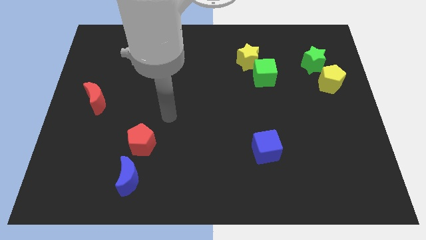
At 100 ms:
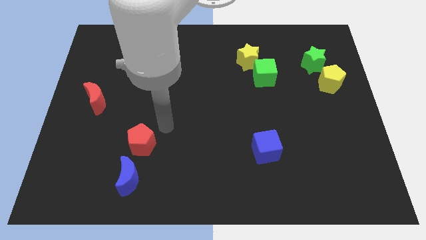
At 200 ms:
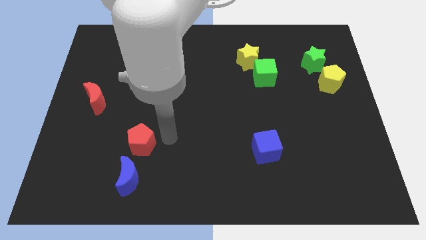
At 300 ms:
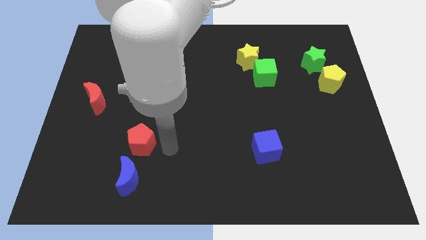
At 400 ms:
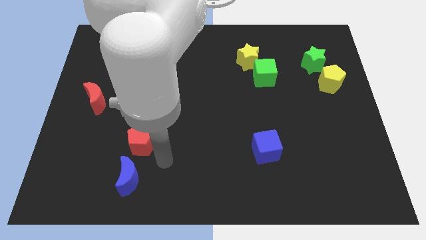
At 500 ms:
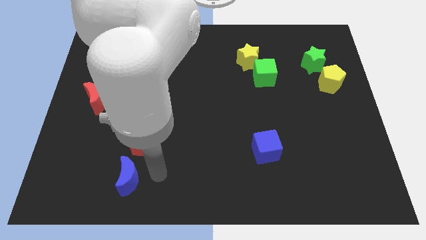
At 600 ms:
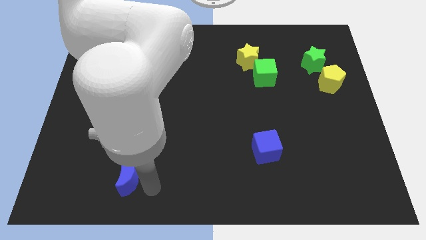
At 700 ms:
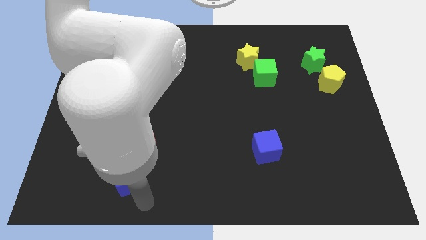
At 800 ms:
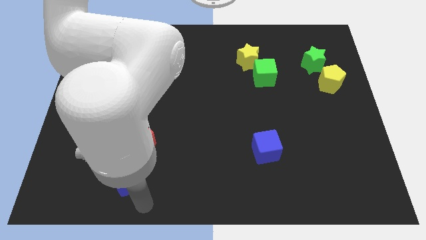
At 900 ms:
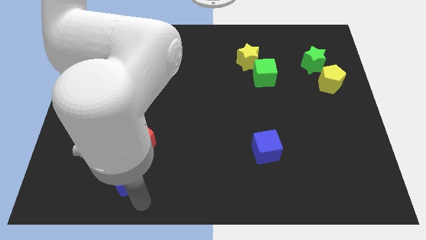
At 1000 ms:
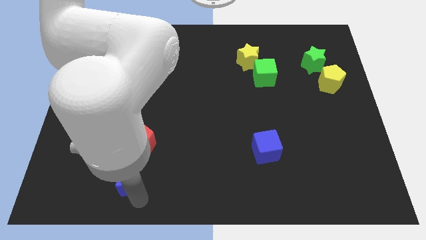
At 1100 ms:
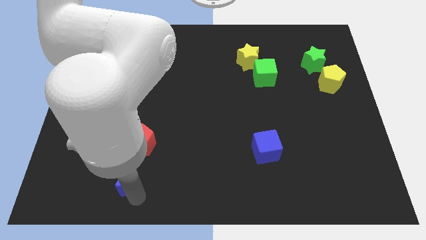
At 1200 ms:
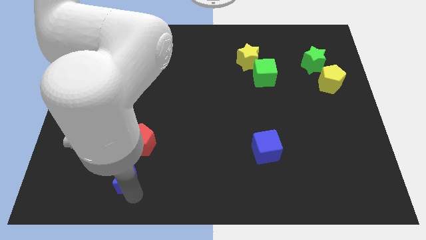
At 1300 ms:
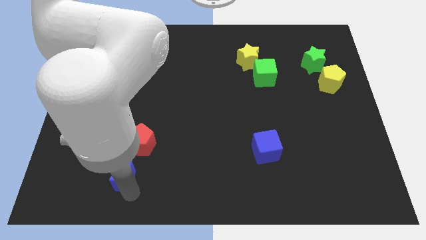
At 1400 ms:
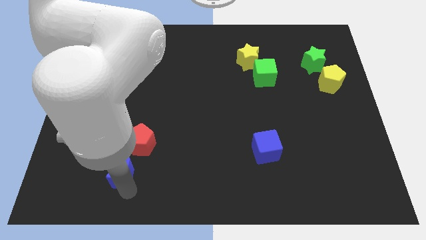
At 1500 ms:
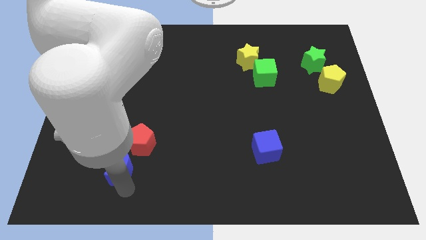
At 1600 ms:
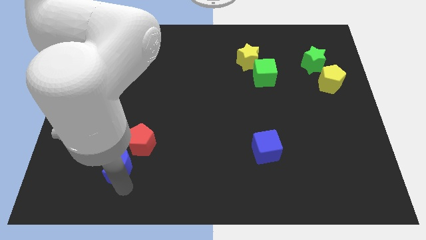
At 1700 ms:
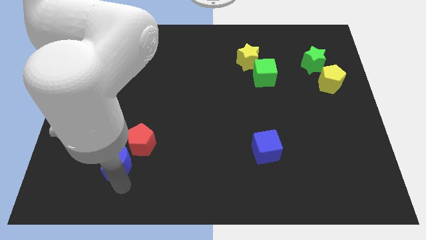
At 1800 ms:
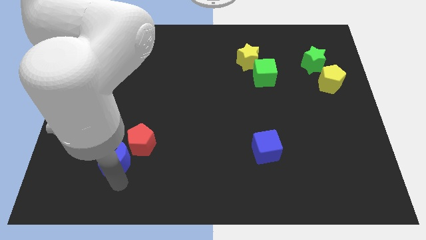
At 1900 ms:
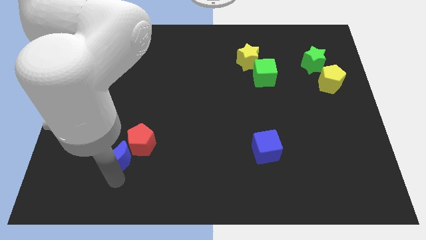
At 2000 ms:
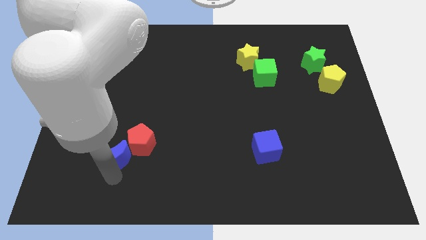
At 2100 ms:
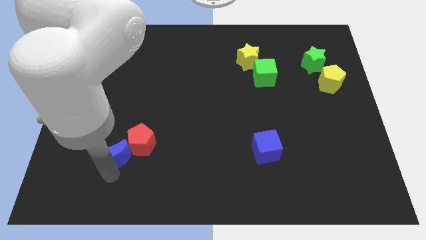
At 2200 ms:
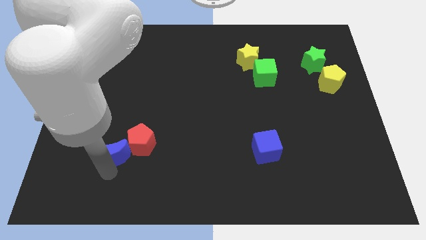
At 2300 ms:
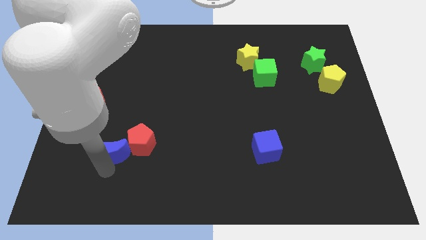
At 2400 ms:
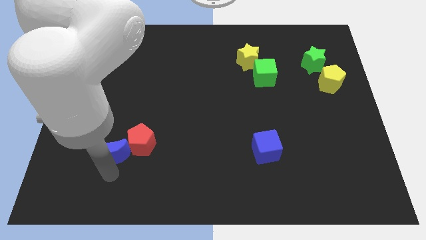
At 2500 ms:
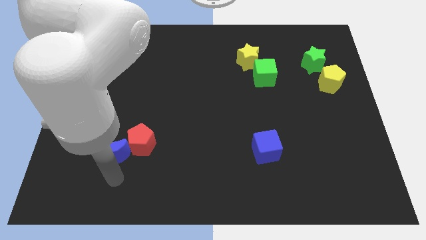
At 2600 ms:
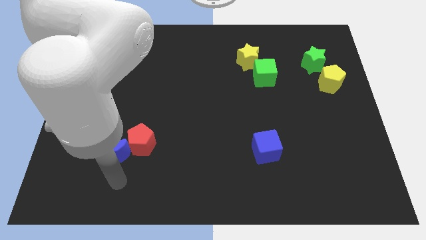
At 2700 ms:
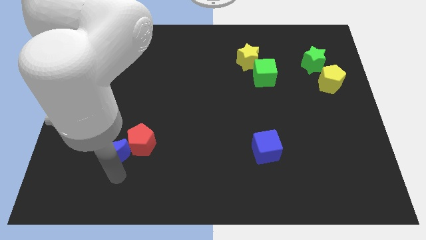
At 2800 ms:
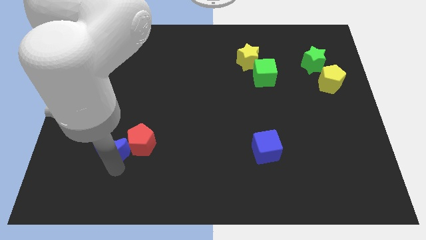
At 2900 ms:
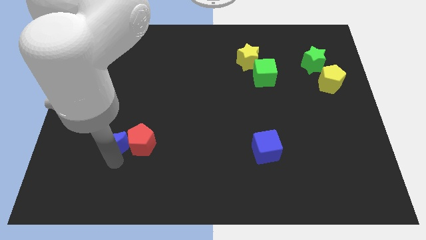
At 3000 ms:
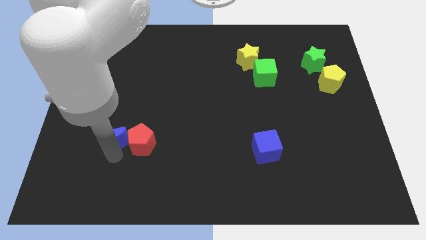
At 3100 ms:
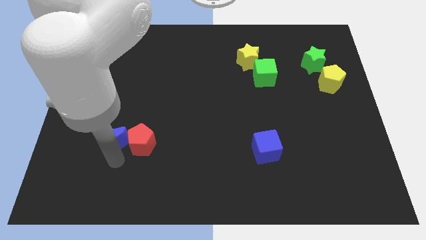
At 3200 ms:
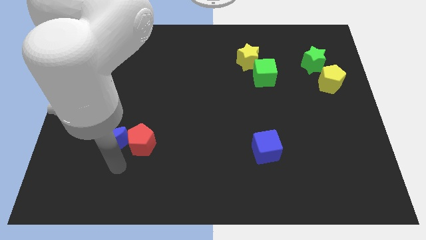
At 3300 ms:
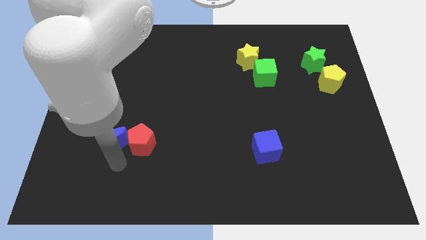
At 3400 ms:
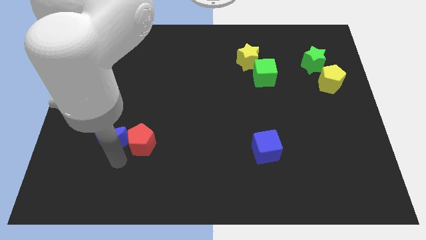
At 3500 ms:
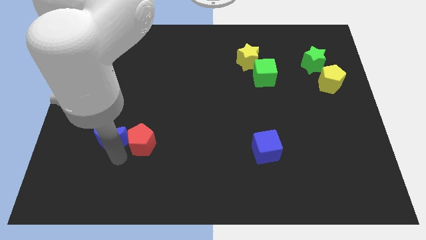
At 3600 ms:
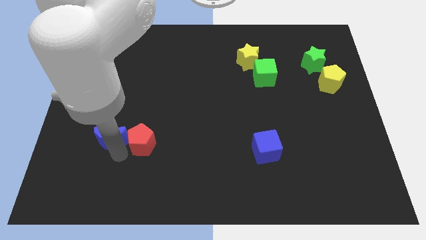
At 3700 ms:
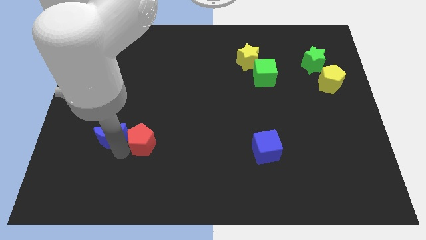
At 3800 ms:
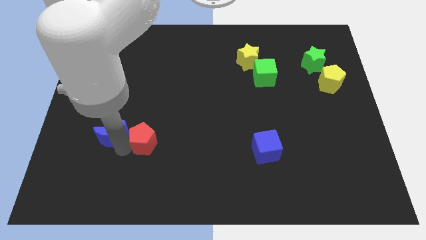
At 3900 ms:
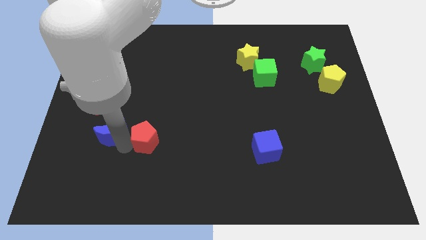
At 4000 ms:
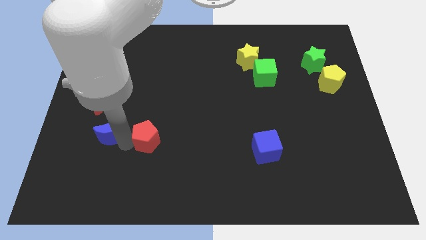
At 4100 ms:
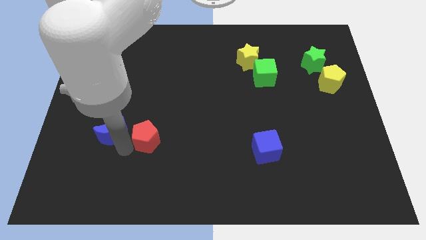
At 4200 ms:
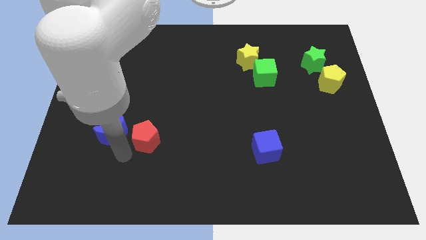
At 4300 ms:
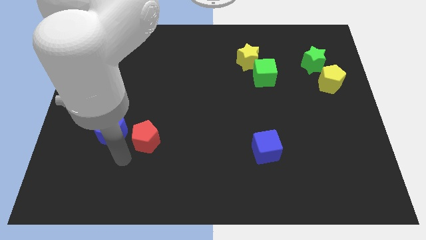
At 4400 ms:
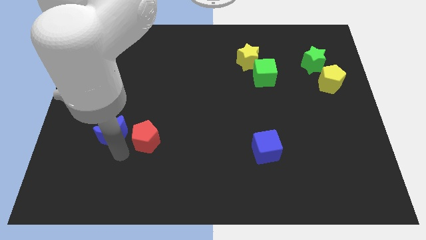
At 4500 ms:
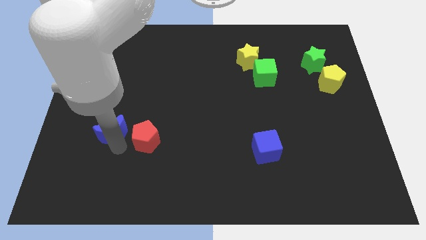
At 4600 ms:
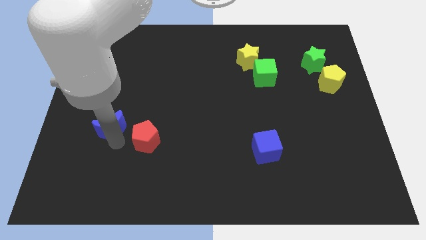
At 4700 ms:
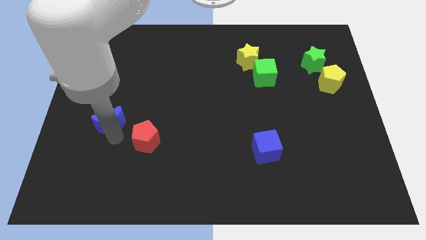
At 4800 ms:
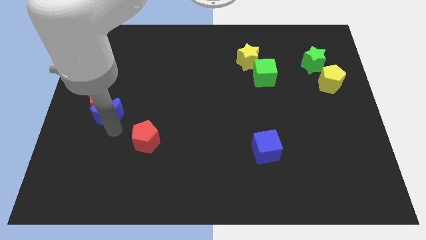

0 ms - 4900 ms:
slide the blue moon close to the red moon

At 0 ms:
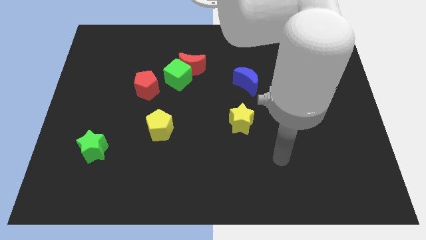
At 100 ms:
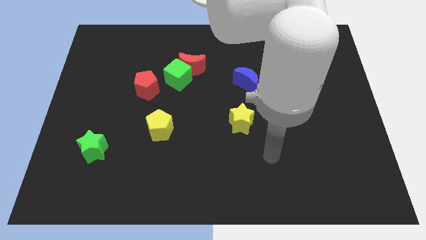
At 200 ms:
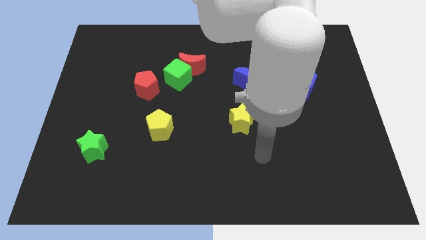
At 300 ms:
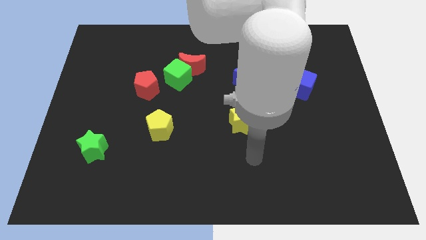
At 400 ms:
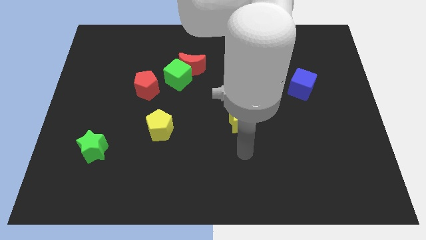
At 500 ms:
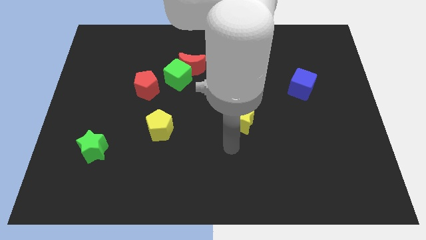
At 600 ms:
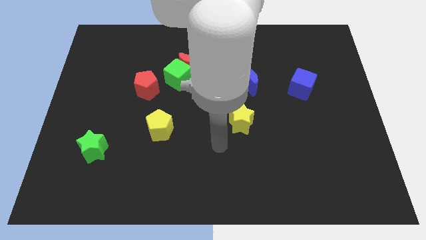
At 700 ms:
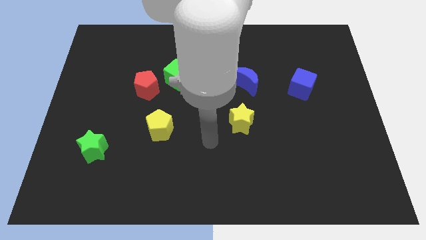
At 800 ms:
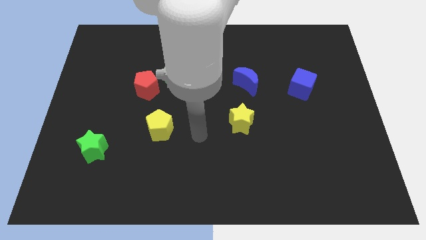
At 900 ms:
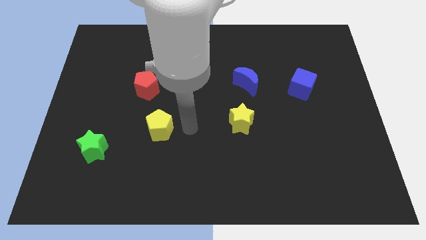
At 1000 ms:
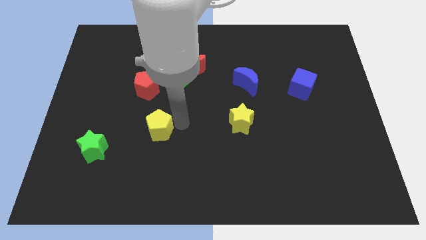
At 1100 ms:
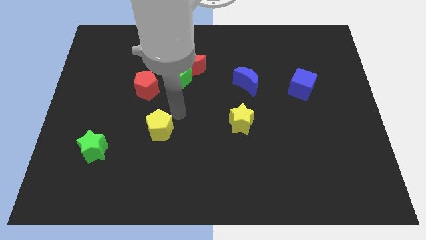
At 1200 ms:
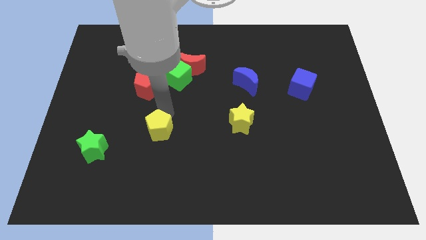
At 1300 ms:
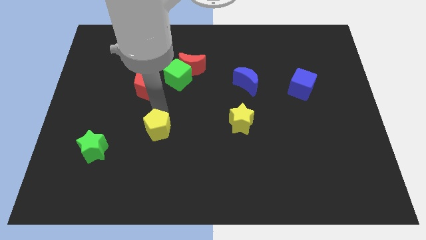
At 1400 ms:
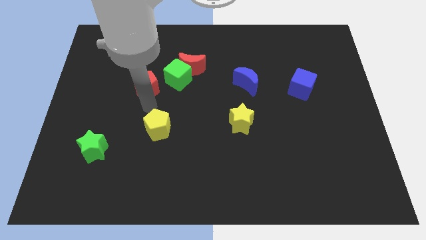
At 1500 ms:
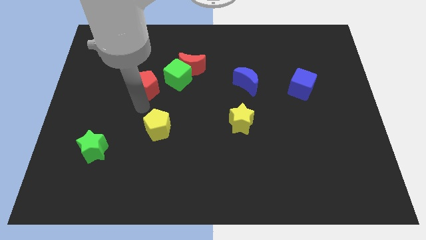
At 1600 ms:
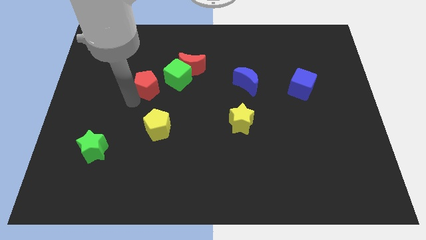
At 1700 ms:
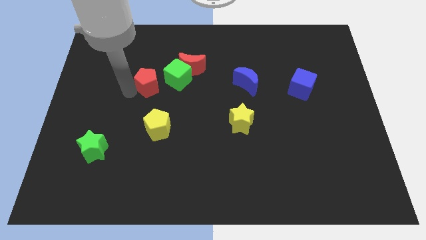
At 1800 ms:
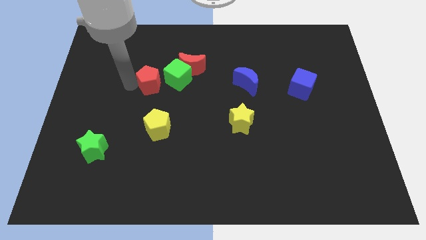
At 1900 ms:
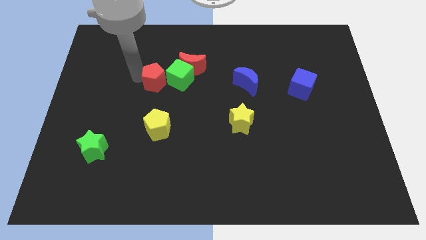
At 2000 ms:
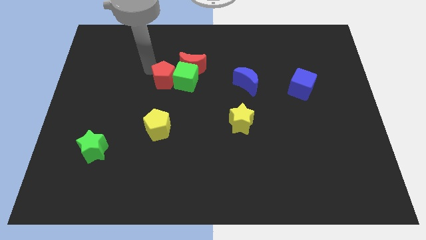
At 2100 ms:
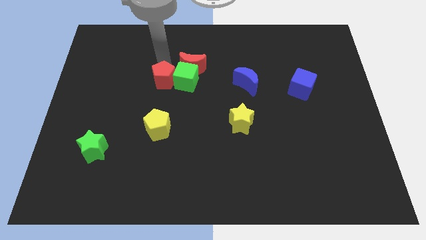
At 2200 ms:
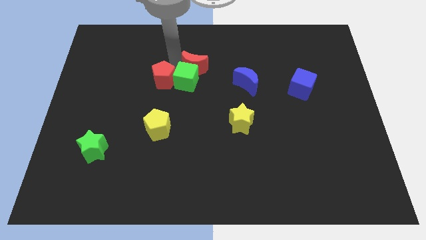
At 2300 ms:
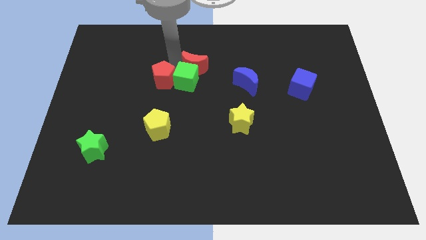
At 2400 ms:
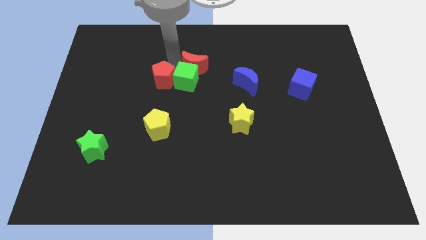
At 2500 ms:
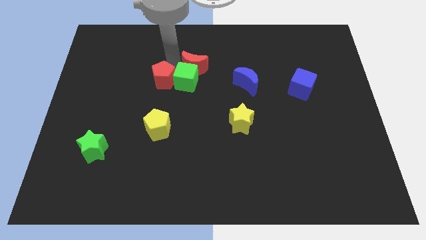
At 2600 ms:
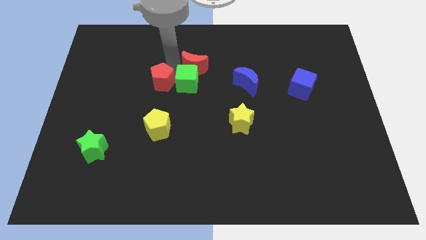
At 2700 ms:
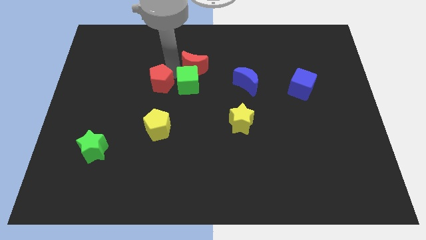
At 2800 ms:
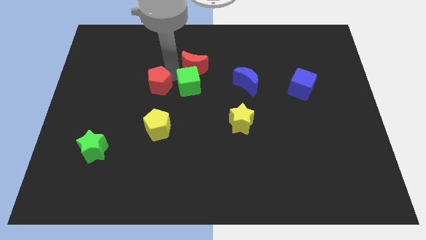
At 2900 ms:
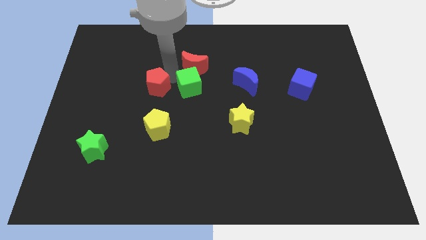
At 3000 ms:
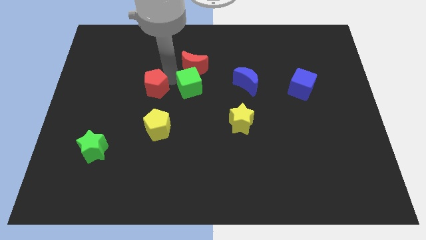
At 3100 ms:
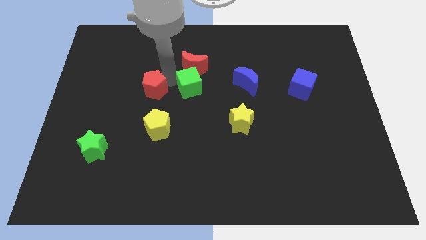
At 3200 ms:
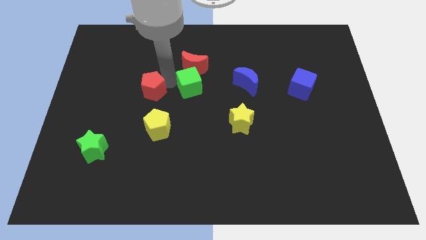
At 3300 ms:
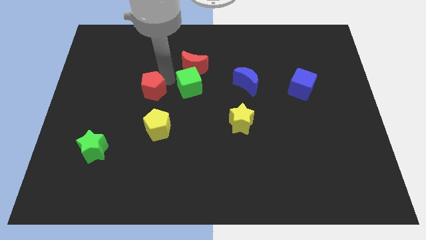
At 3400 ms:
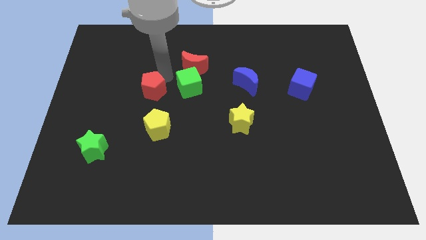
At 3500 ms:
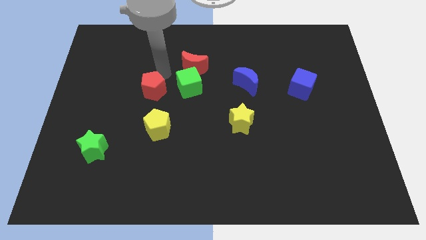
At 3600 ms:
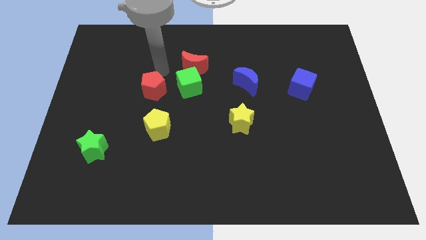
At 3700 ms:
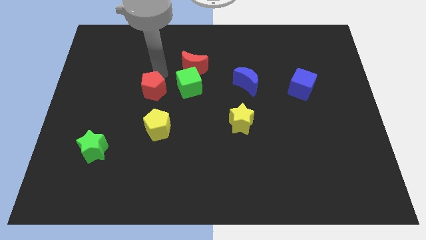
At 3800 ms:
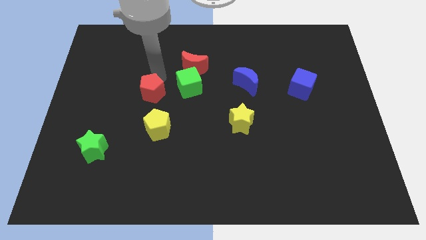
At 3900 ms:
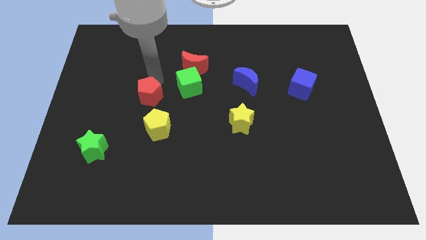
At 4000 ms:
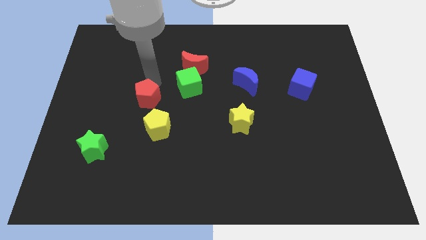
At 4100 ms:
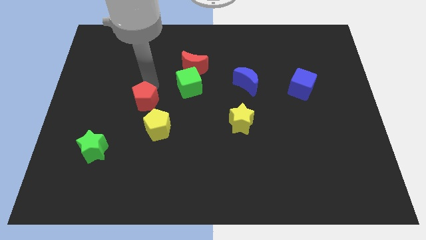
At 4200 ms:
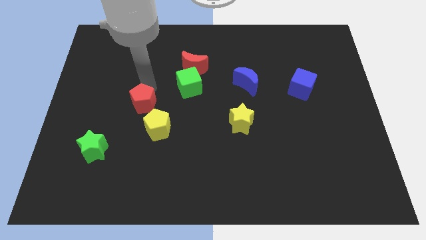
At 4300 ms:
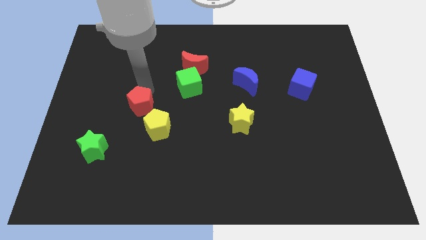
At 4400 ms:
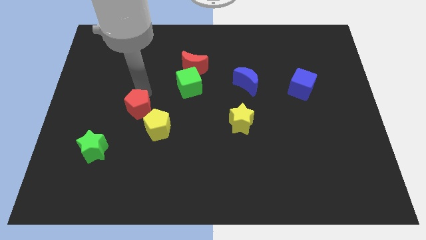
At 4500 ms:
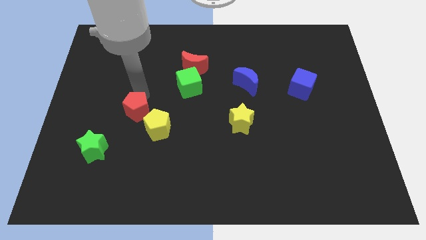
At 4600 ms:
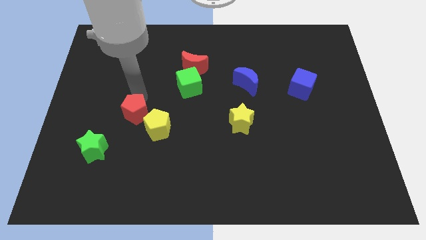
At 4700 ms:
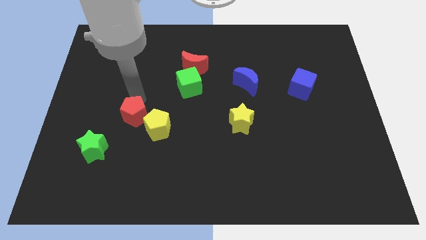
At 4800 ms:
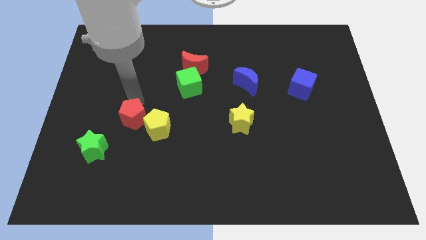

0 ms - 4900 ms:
push the red pentagon to the yellow pentagon
